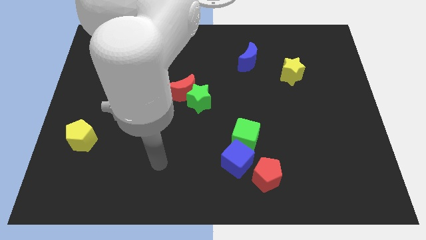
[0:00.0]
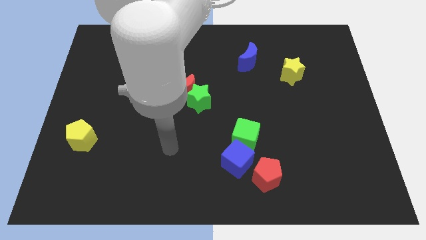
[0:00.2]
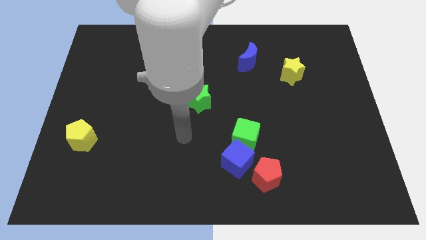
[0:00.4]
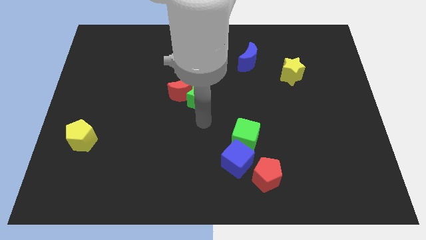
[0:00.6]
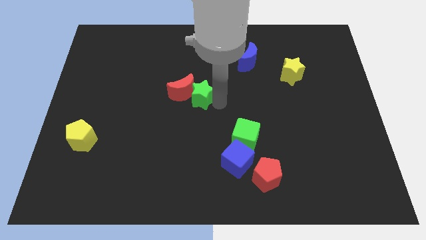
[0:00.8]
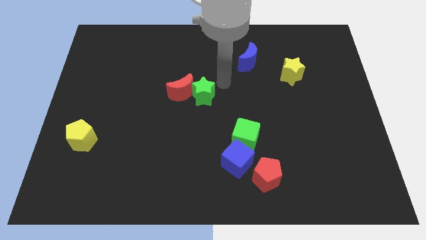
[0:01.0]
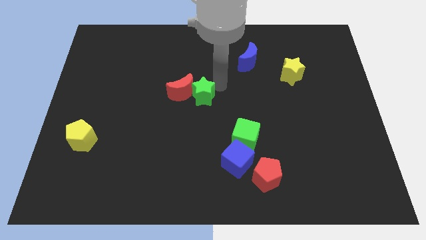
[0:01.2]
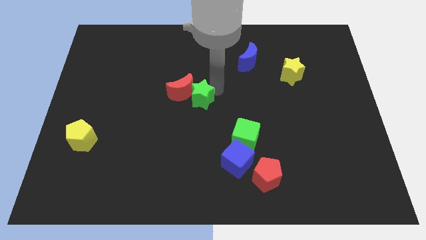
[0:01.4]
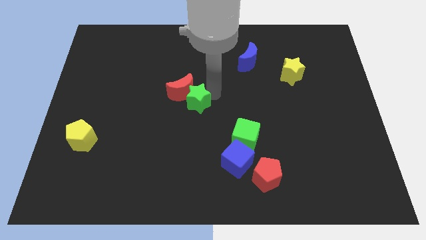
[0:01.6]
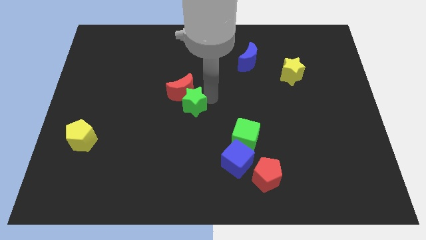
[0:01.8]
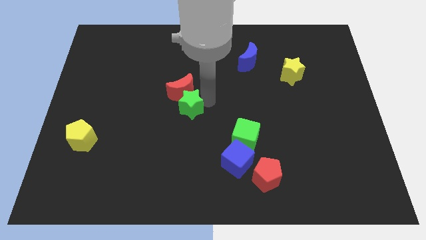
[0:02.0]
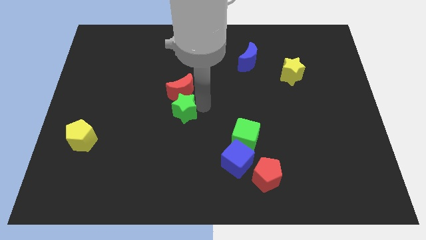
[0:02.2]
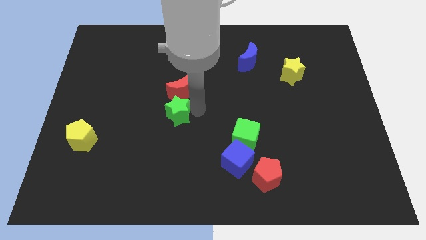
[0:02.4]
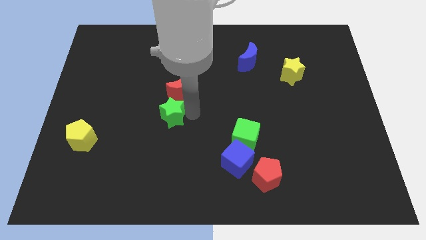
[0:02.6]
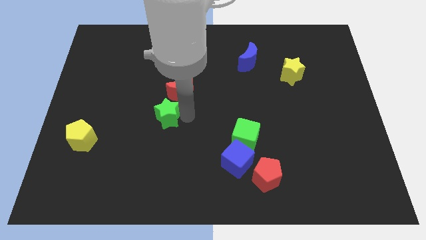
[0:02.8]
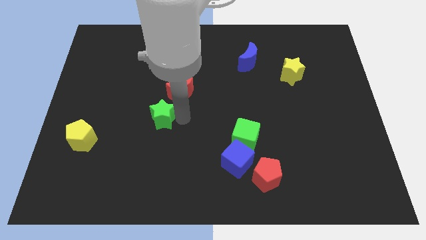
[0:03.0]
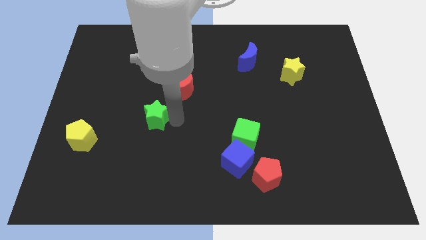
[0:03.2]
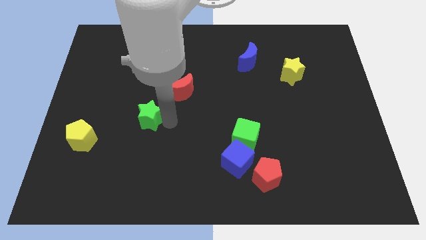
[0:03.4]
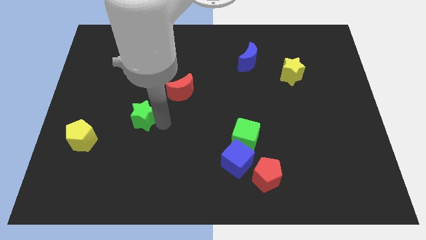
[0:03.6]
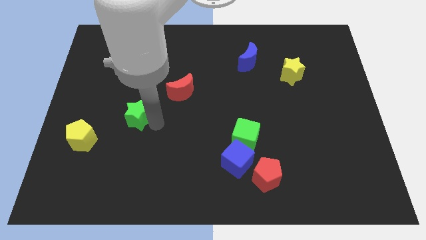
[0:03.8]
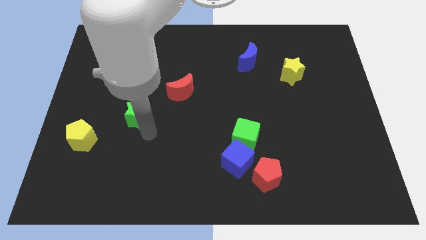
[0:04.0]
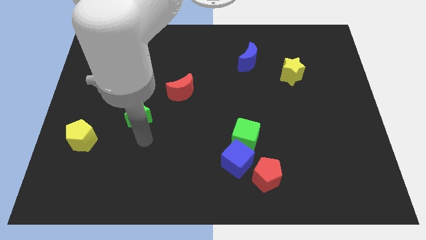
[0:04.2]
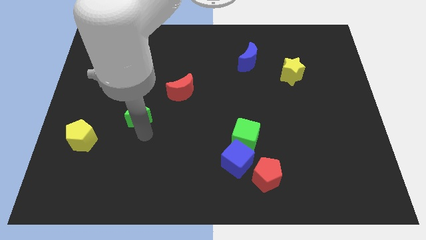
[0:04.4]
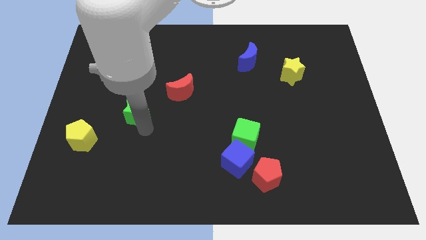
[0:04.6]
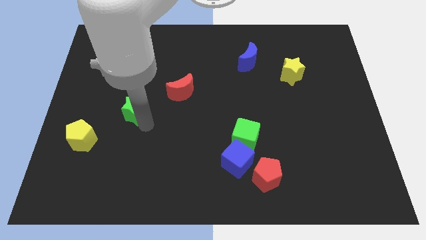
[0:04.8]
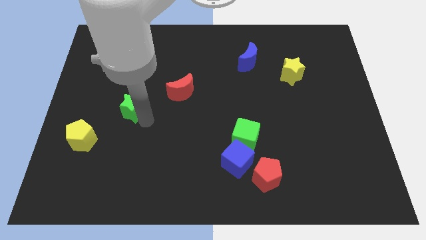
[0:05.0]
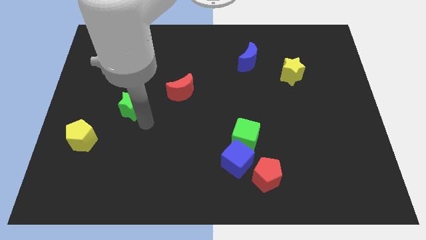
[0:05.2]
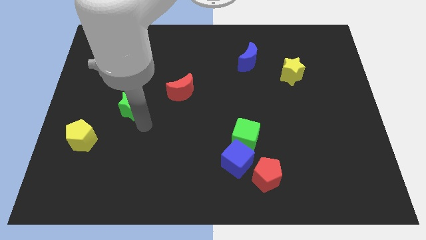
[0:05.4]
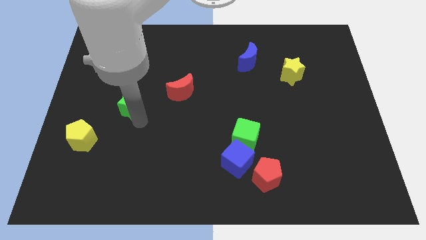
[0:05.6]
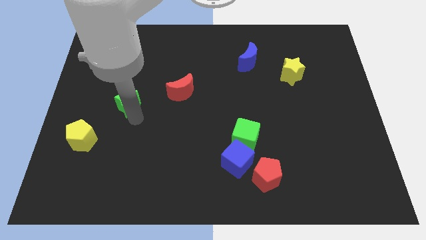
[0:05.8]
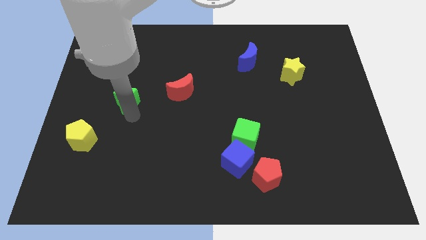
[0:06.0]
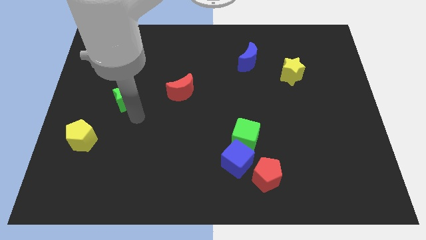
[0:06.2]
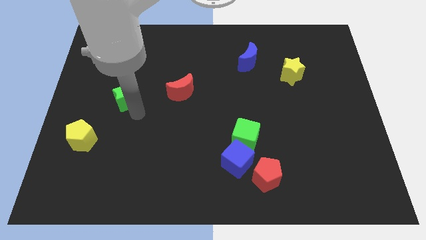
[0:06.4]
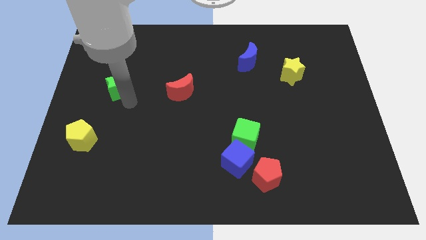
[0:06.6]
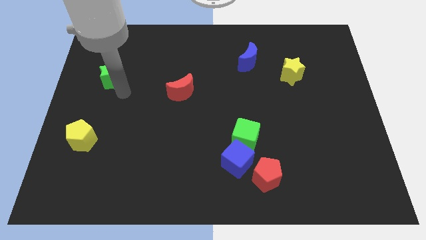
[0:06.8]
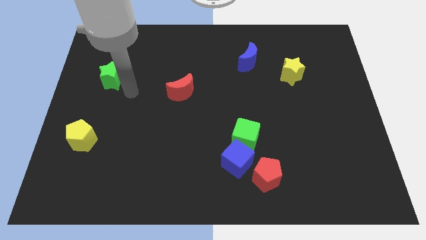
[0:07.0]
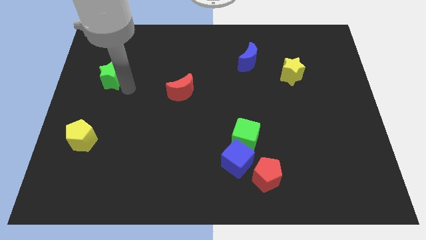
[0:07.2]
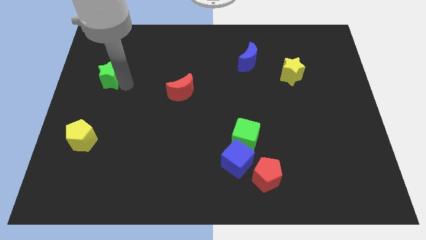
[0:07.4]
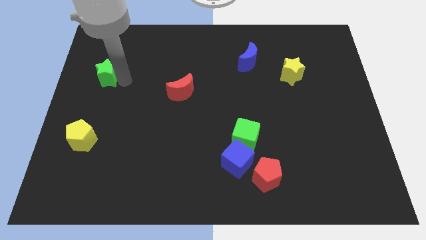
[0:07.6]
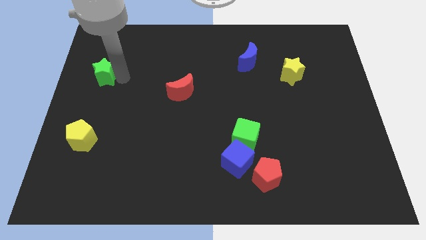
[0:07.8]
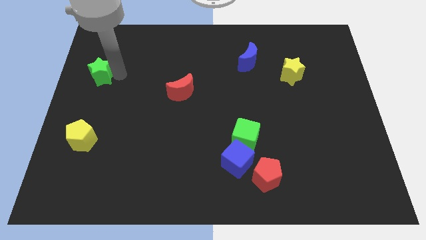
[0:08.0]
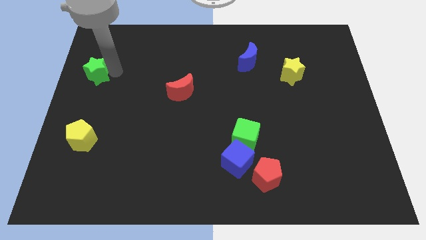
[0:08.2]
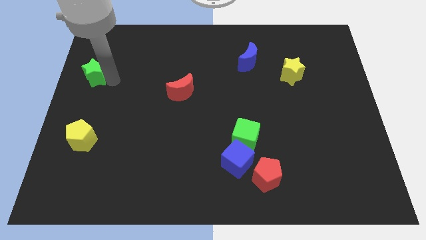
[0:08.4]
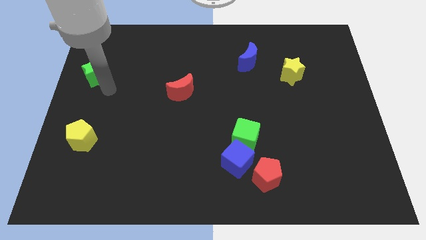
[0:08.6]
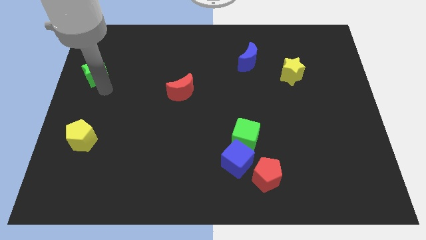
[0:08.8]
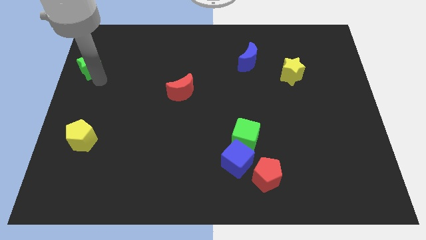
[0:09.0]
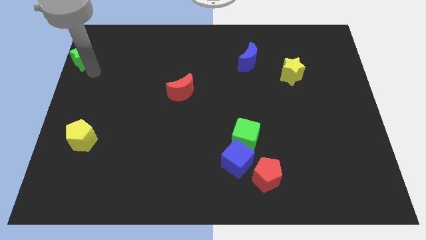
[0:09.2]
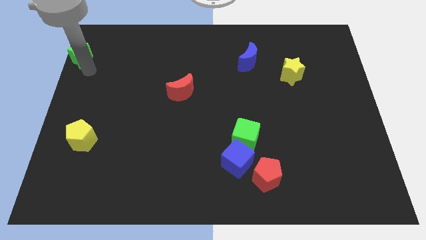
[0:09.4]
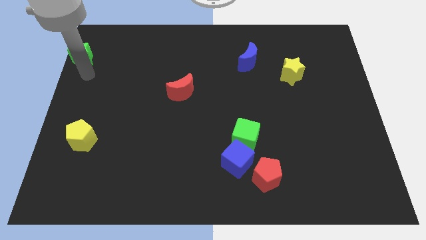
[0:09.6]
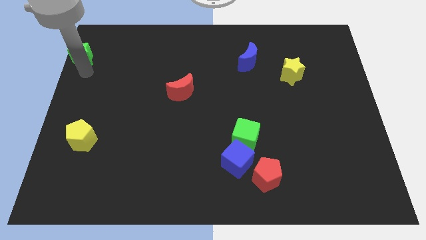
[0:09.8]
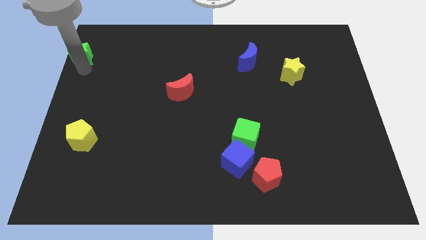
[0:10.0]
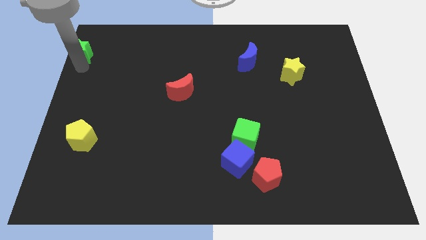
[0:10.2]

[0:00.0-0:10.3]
put the green star to the upper left corner
